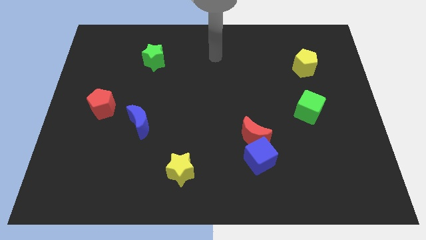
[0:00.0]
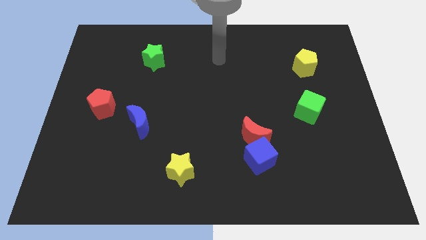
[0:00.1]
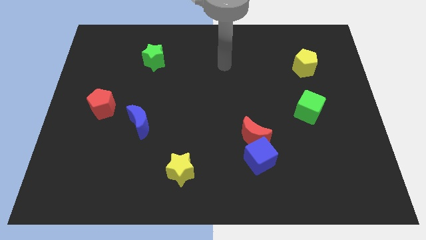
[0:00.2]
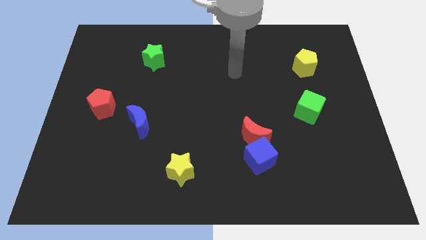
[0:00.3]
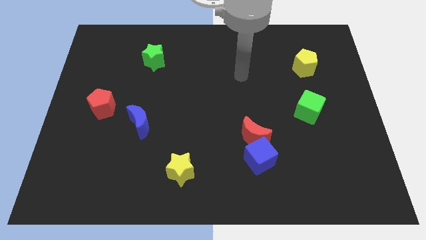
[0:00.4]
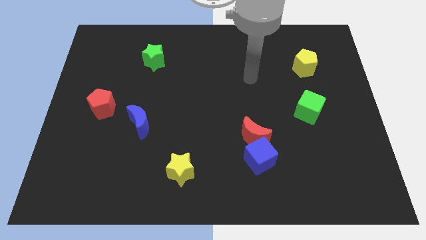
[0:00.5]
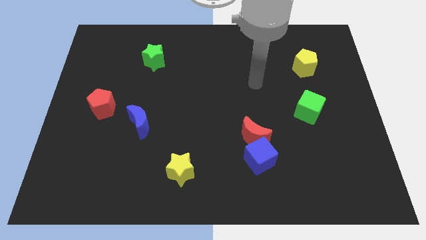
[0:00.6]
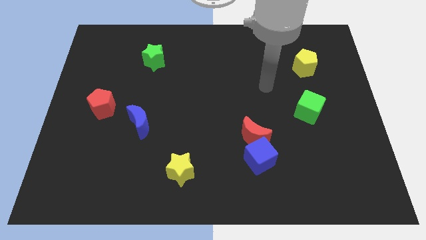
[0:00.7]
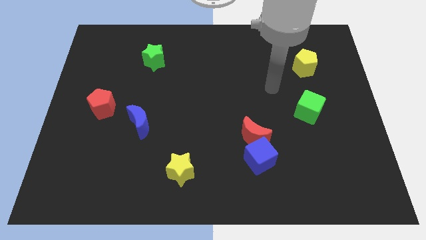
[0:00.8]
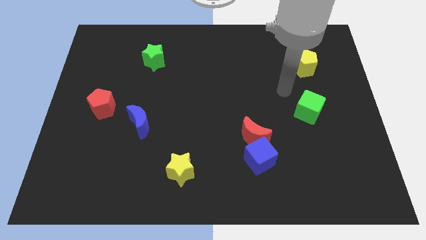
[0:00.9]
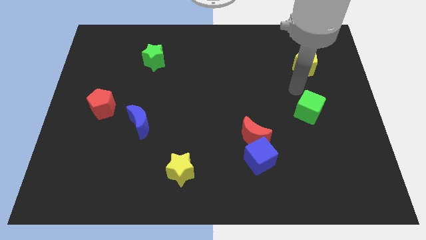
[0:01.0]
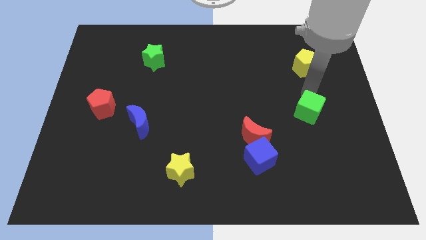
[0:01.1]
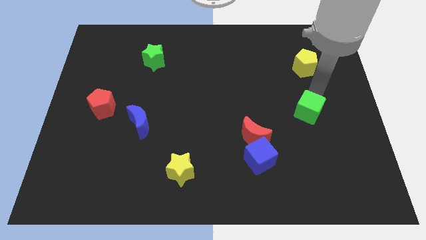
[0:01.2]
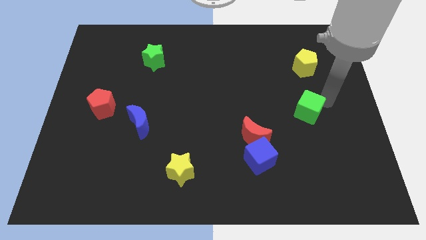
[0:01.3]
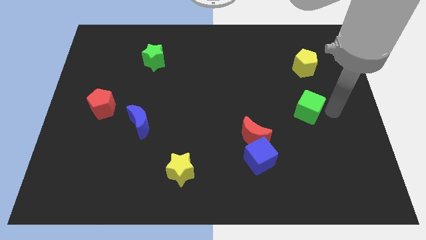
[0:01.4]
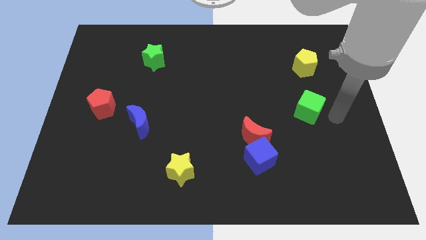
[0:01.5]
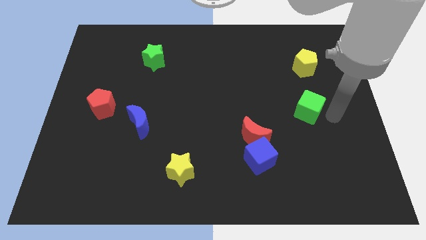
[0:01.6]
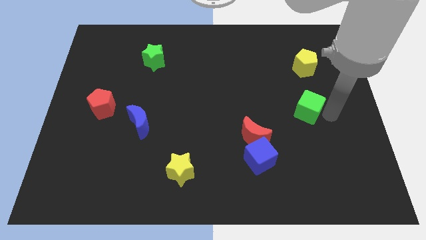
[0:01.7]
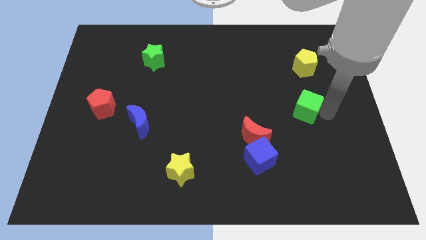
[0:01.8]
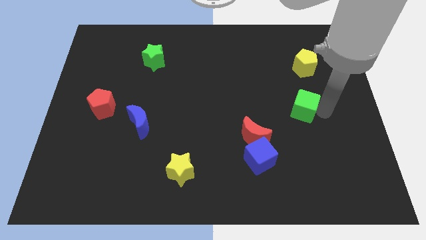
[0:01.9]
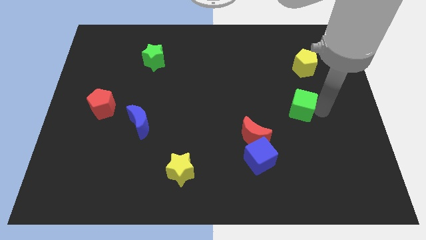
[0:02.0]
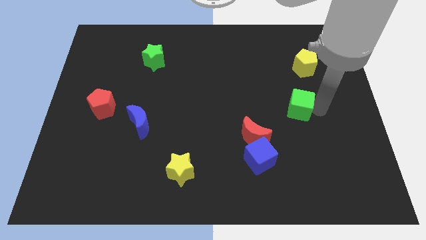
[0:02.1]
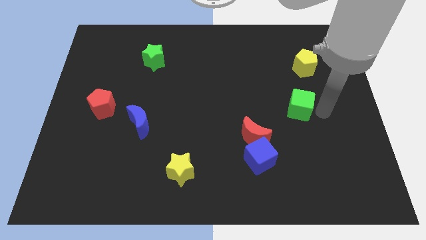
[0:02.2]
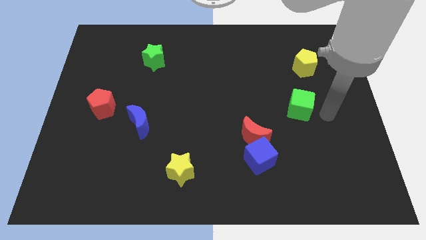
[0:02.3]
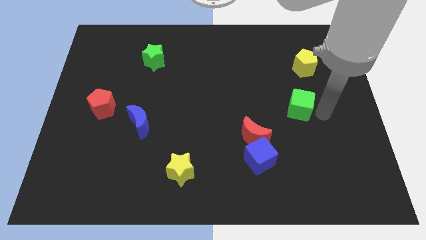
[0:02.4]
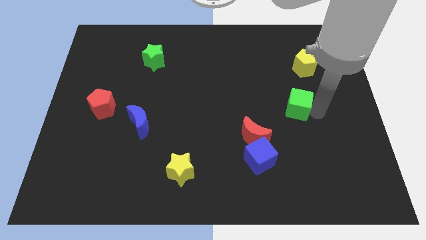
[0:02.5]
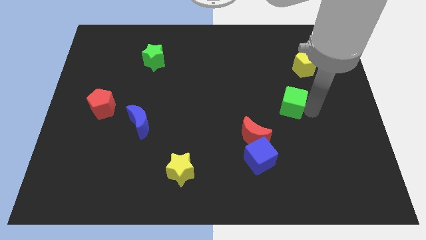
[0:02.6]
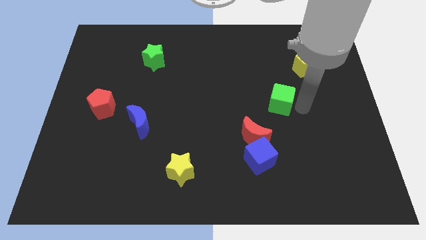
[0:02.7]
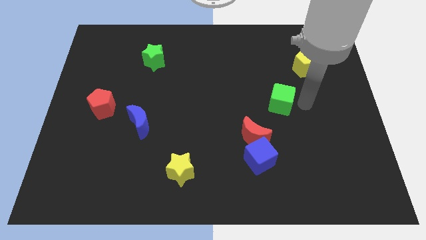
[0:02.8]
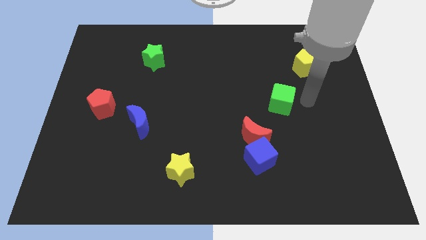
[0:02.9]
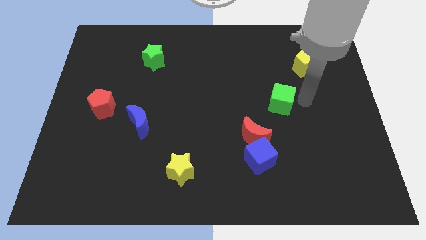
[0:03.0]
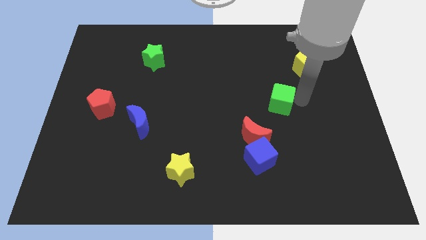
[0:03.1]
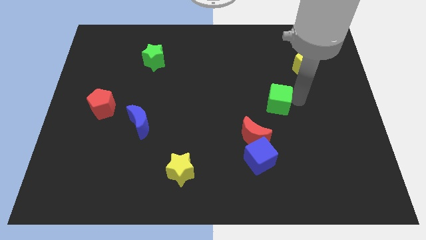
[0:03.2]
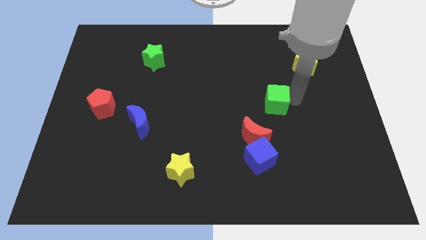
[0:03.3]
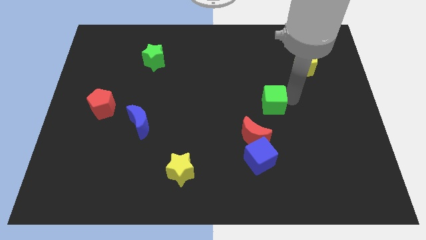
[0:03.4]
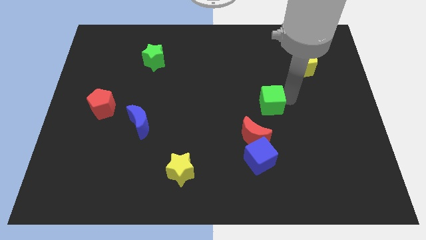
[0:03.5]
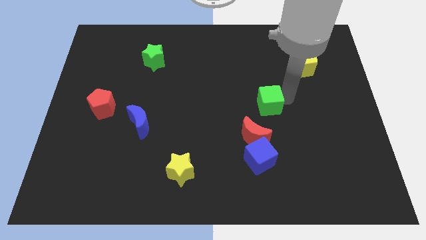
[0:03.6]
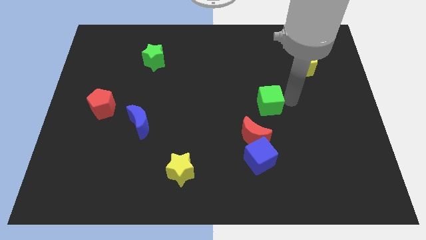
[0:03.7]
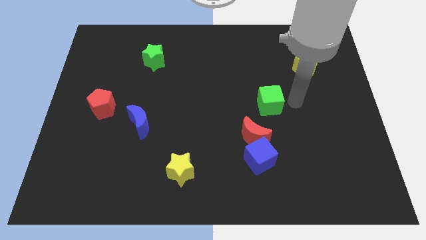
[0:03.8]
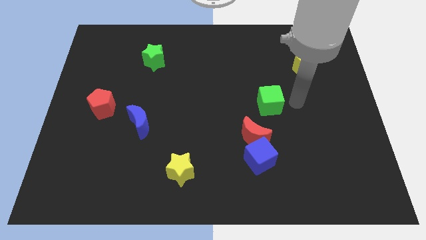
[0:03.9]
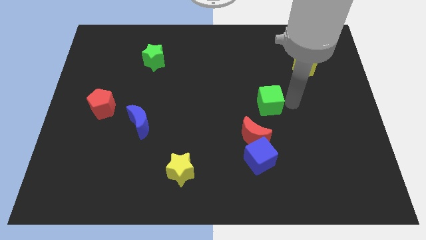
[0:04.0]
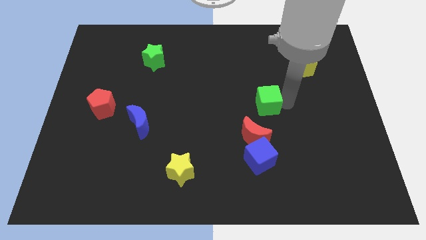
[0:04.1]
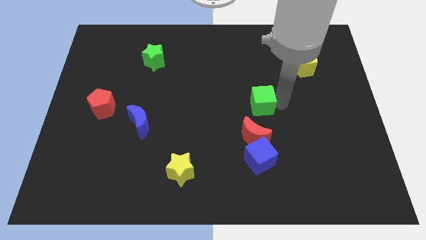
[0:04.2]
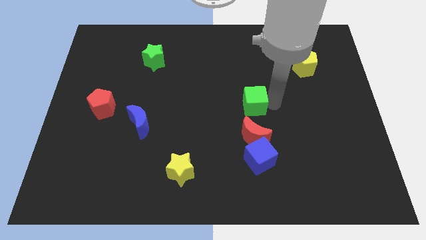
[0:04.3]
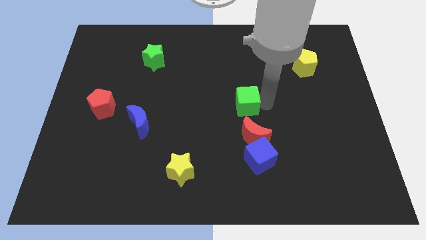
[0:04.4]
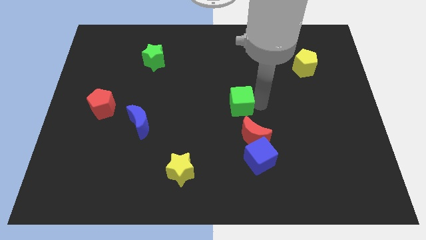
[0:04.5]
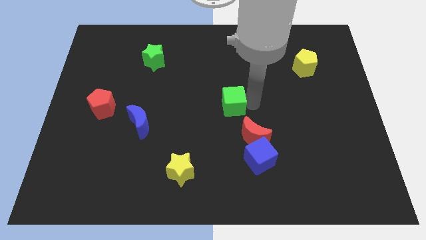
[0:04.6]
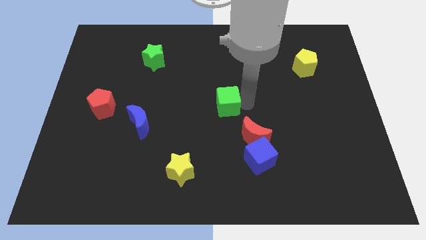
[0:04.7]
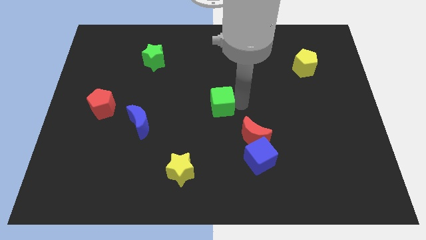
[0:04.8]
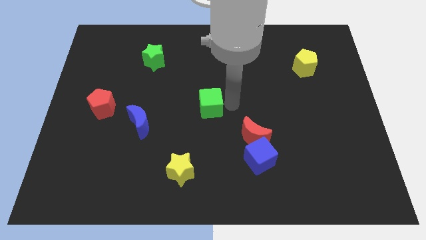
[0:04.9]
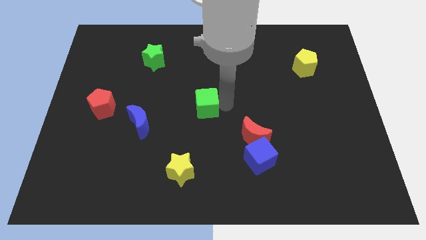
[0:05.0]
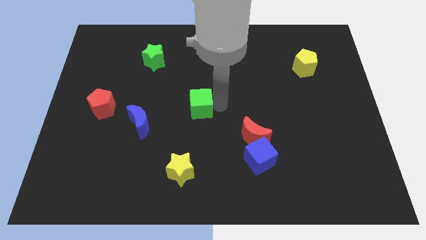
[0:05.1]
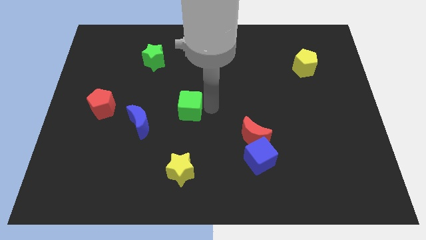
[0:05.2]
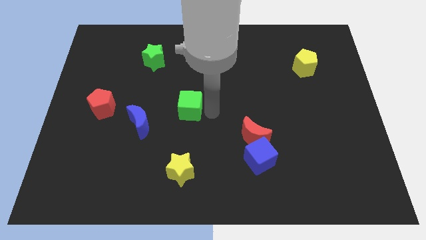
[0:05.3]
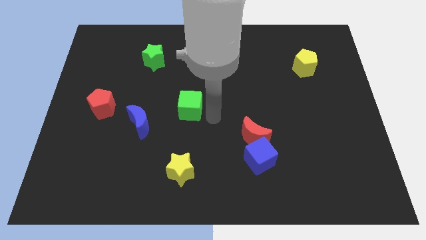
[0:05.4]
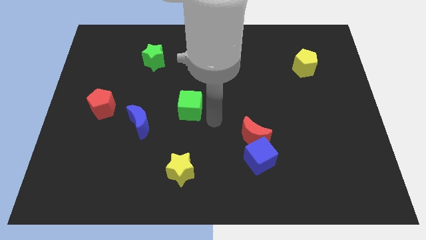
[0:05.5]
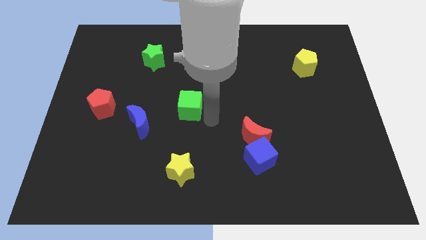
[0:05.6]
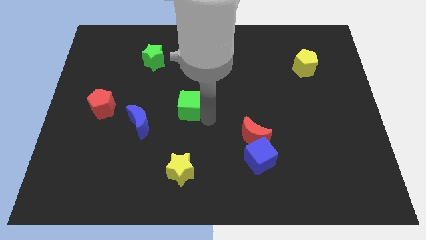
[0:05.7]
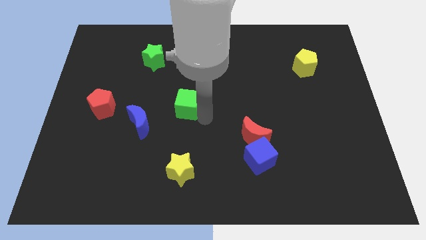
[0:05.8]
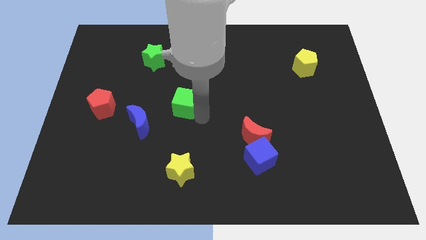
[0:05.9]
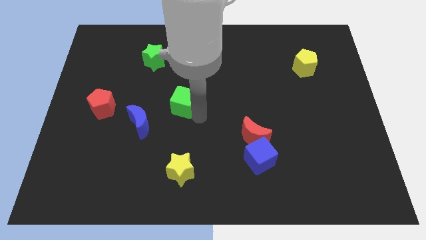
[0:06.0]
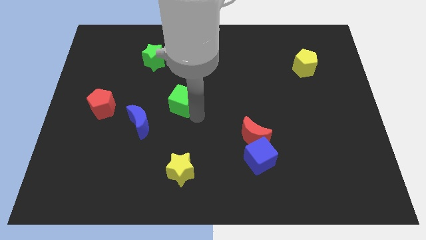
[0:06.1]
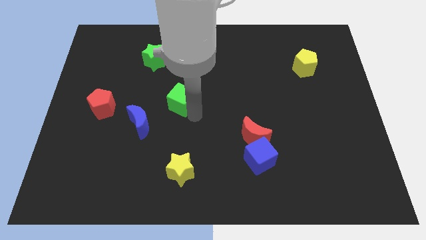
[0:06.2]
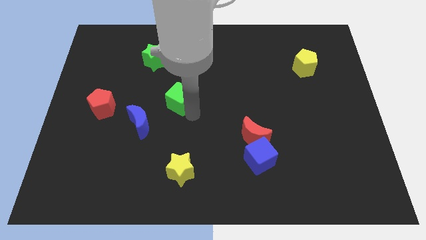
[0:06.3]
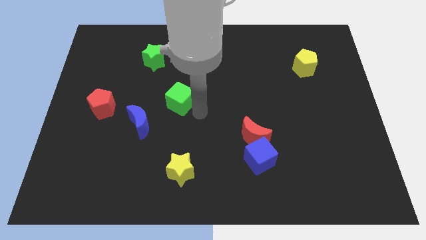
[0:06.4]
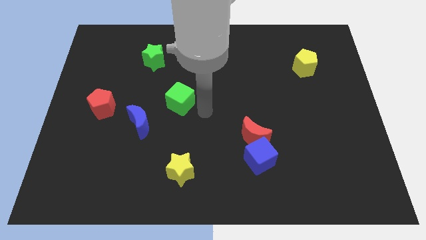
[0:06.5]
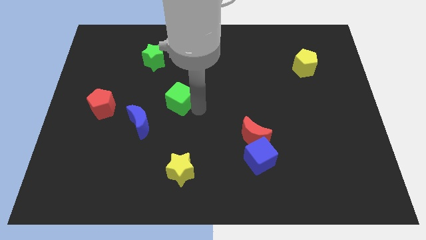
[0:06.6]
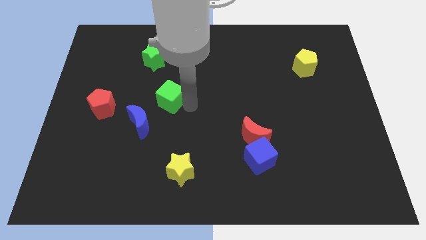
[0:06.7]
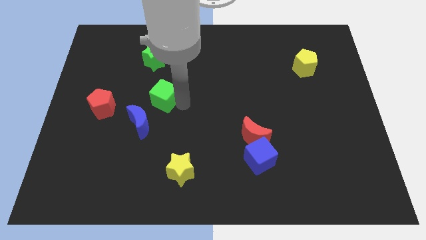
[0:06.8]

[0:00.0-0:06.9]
slide the green cube to the bottom side of the green star
